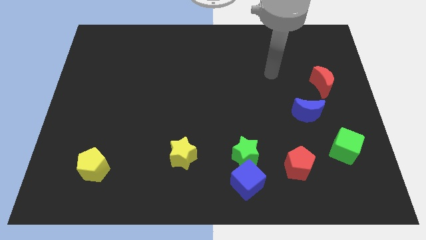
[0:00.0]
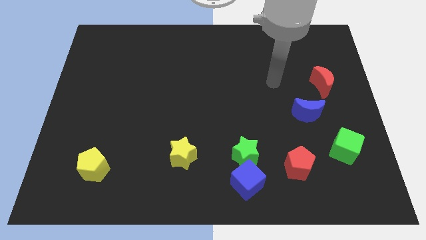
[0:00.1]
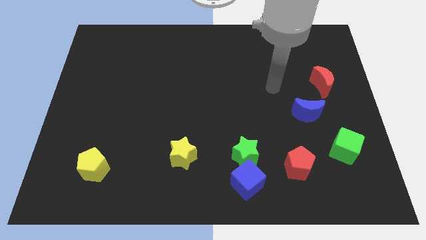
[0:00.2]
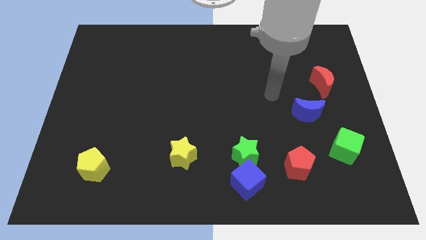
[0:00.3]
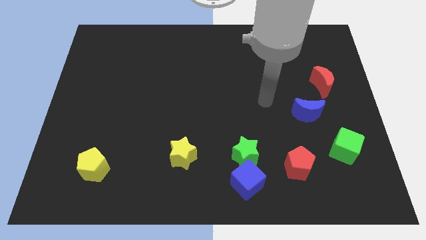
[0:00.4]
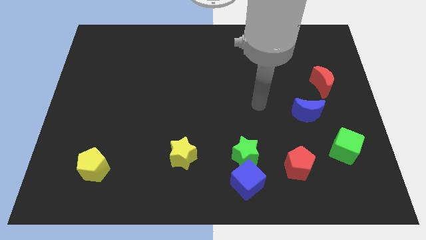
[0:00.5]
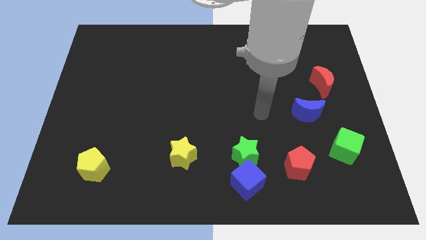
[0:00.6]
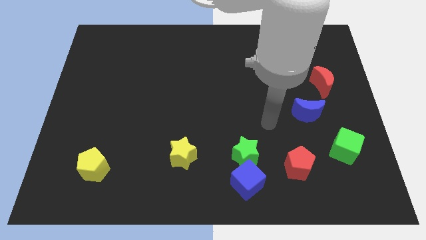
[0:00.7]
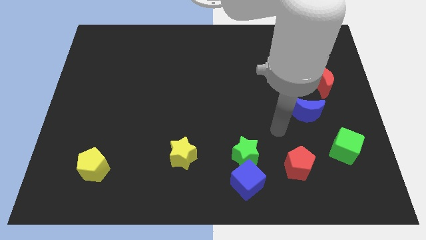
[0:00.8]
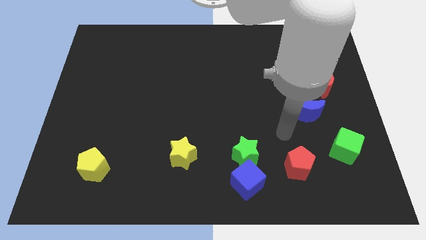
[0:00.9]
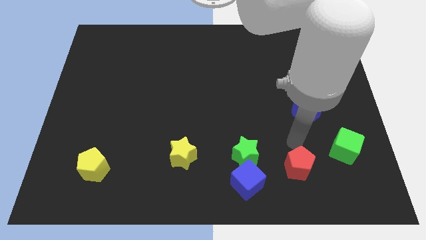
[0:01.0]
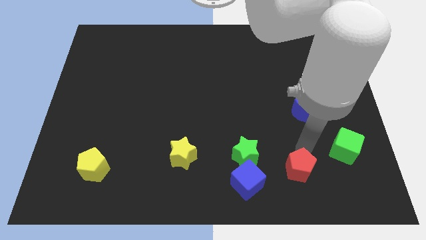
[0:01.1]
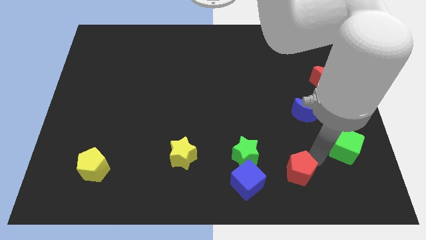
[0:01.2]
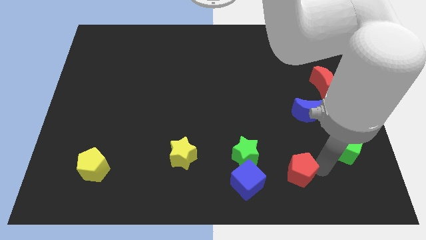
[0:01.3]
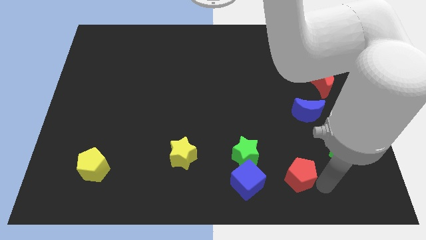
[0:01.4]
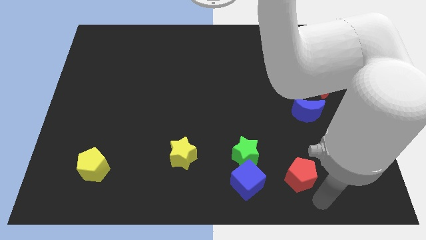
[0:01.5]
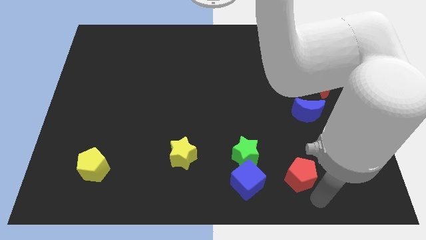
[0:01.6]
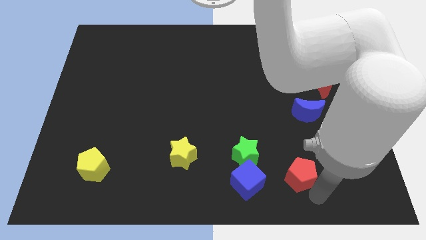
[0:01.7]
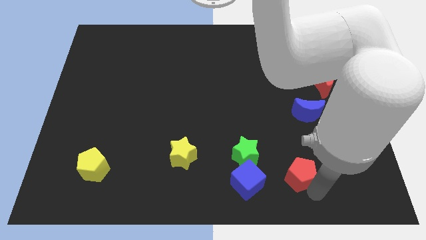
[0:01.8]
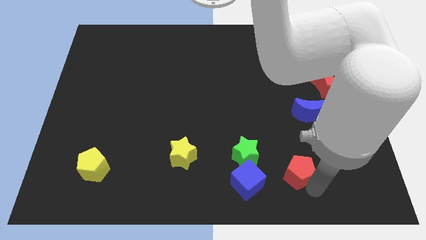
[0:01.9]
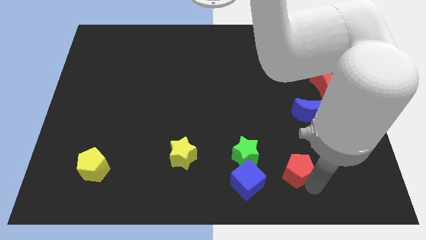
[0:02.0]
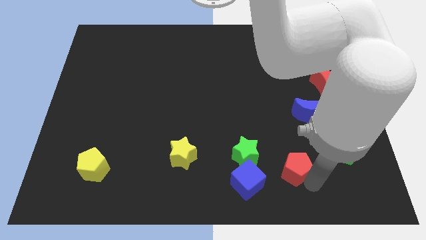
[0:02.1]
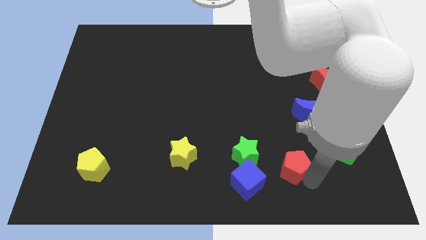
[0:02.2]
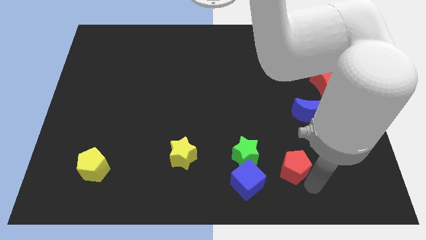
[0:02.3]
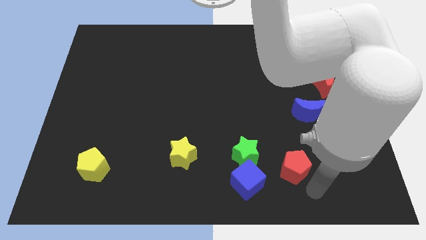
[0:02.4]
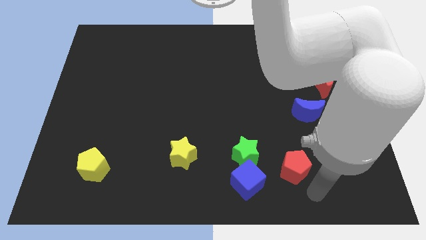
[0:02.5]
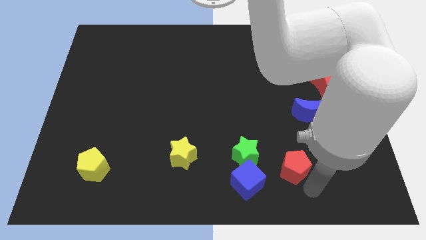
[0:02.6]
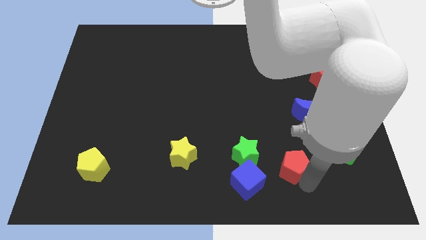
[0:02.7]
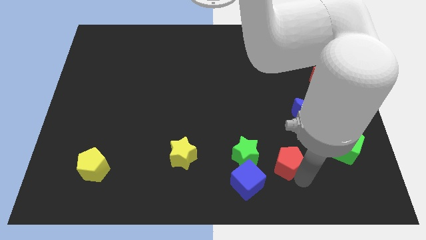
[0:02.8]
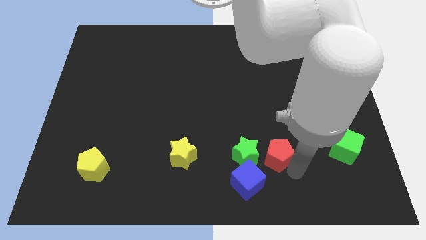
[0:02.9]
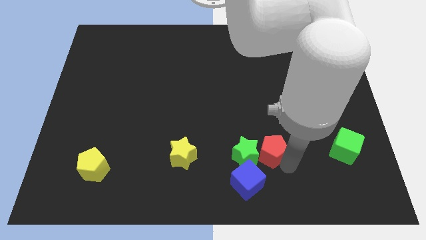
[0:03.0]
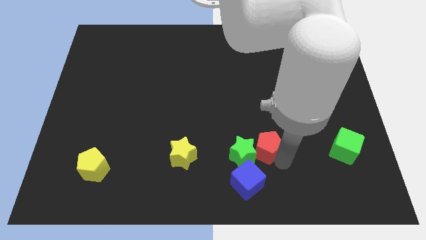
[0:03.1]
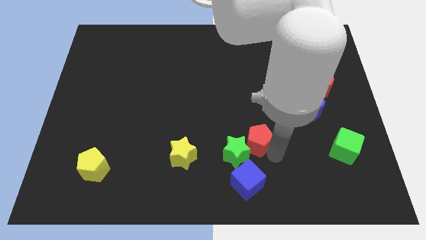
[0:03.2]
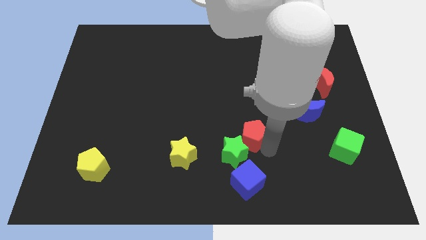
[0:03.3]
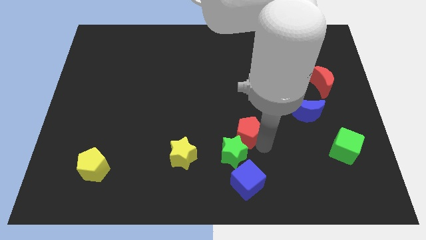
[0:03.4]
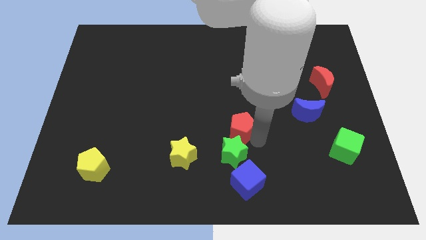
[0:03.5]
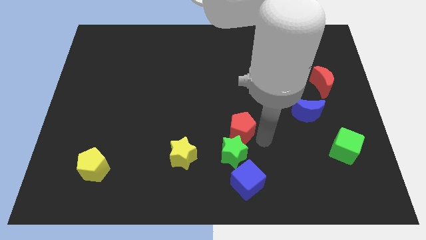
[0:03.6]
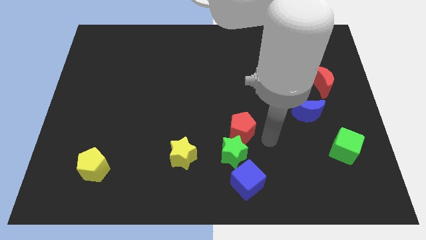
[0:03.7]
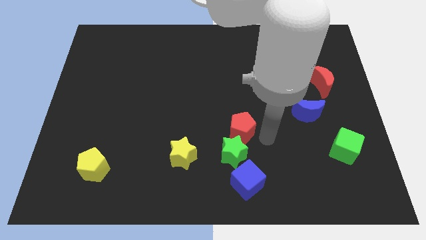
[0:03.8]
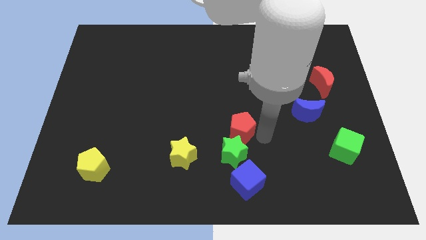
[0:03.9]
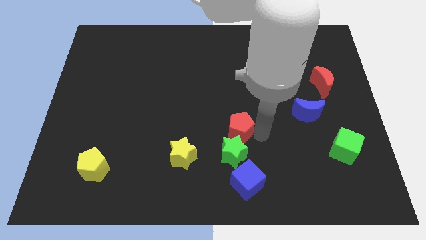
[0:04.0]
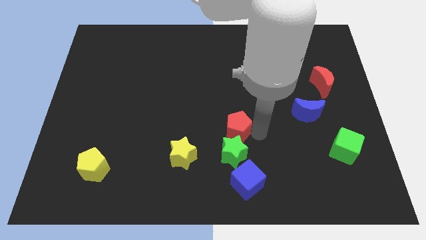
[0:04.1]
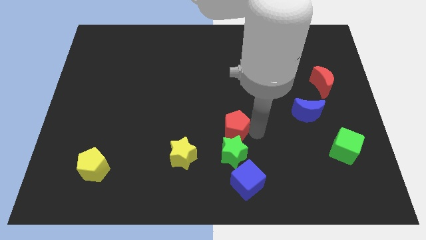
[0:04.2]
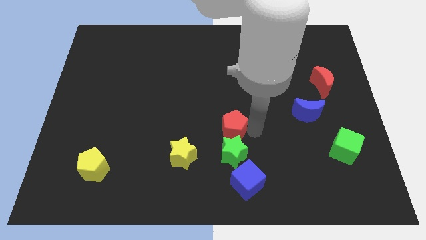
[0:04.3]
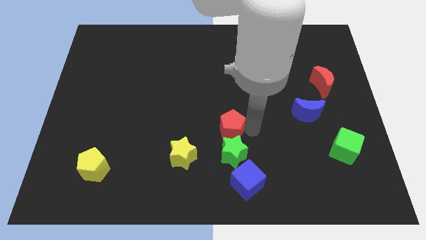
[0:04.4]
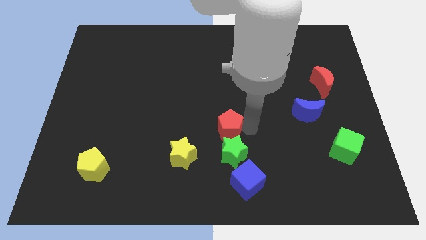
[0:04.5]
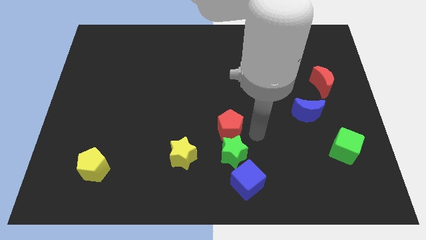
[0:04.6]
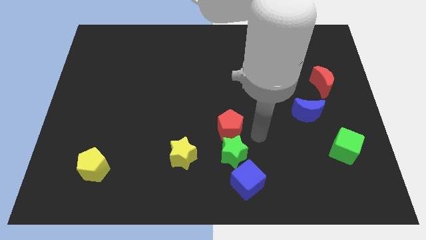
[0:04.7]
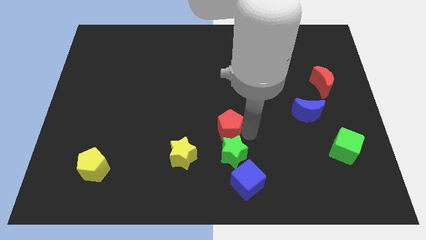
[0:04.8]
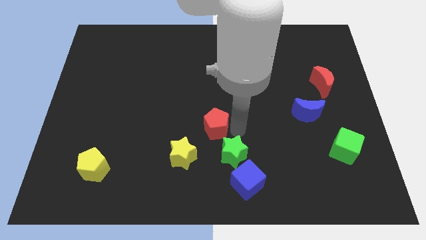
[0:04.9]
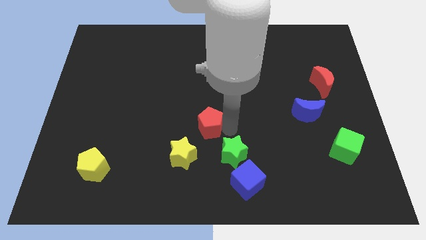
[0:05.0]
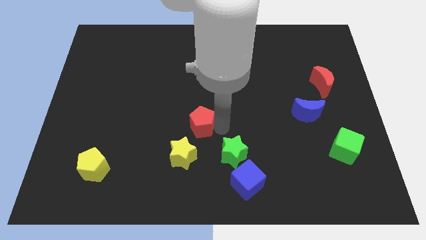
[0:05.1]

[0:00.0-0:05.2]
put the red pentagon to the top side of the yellow star

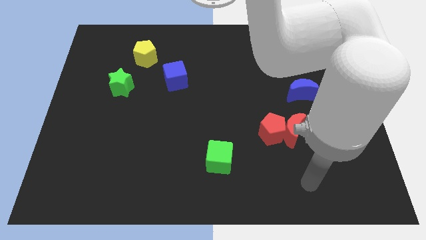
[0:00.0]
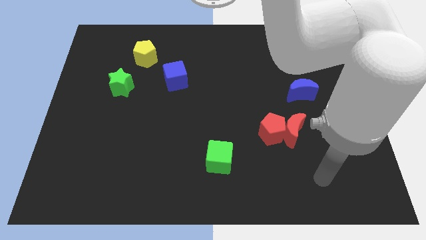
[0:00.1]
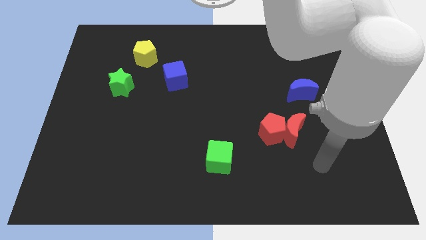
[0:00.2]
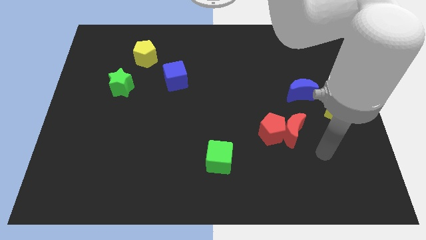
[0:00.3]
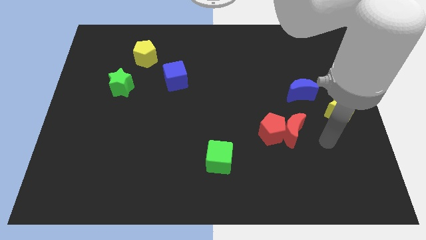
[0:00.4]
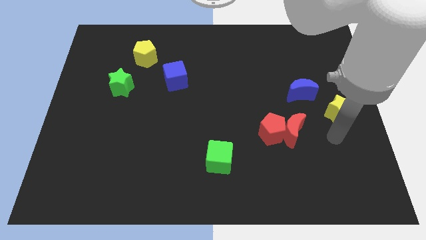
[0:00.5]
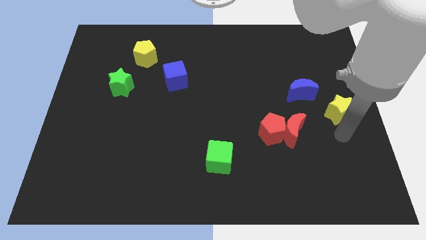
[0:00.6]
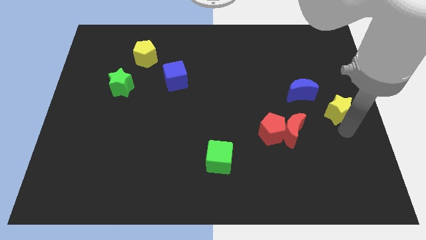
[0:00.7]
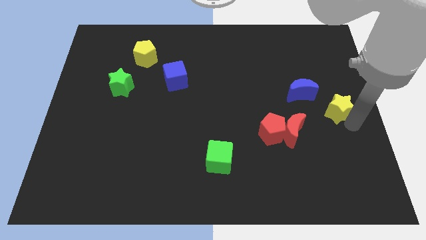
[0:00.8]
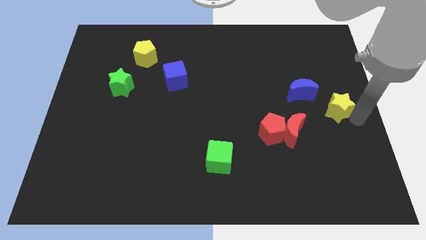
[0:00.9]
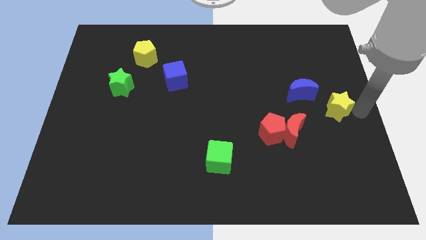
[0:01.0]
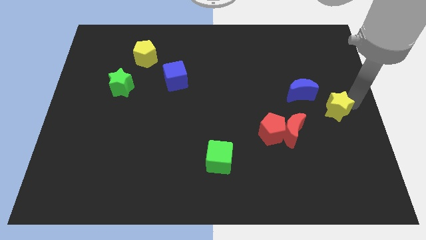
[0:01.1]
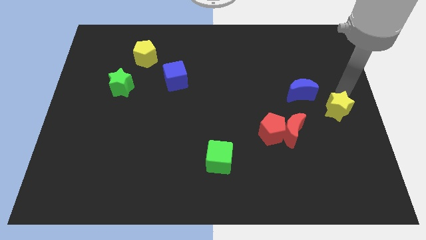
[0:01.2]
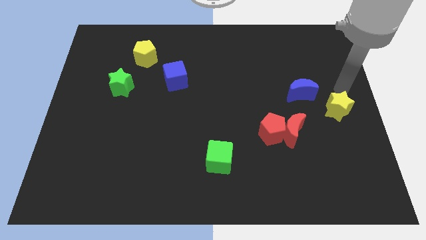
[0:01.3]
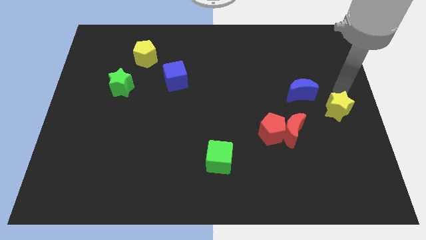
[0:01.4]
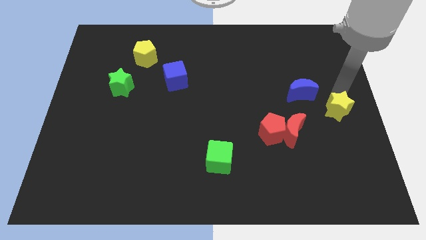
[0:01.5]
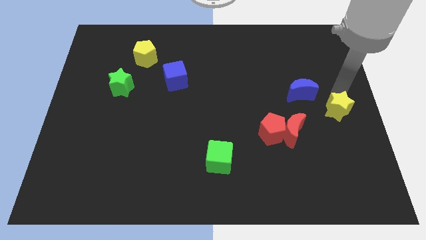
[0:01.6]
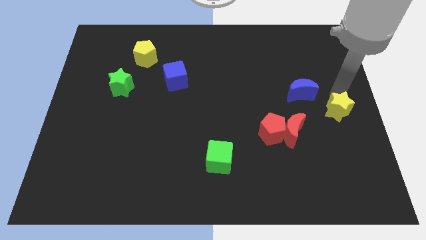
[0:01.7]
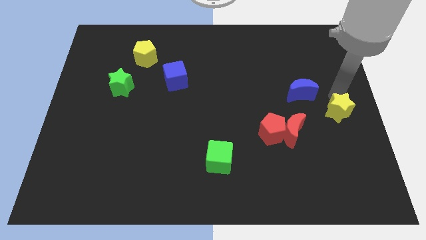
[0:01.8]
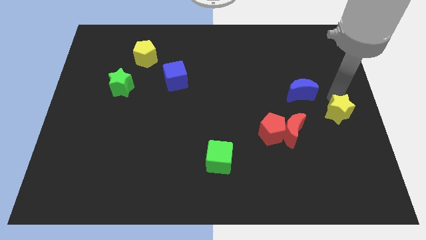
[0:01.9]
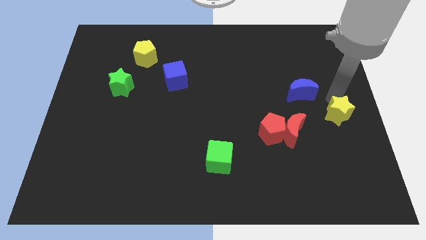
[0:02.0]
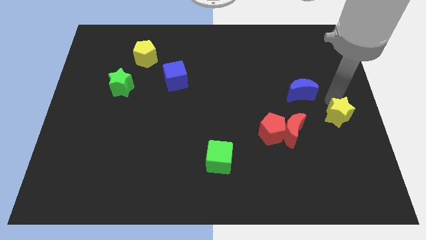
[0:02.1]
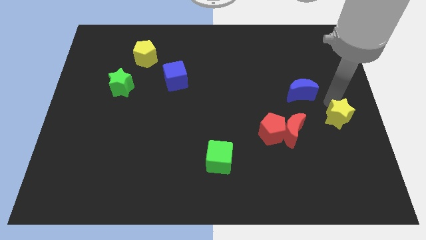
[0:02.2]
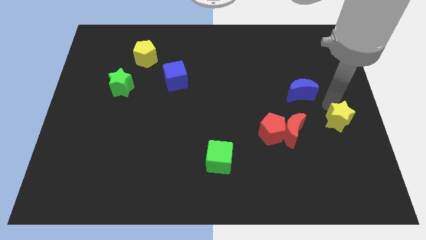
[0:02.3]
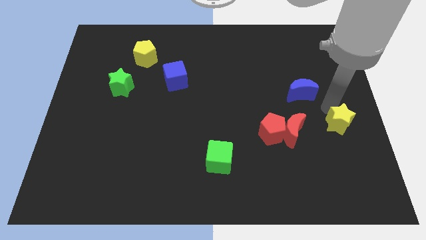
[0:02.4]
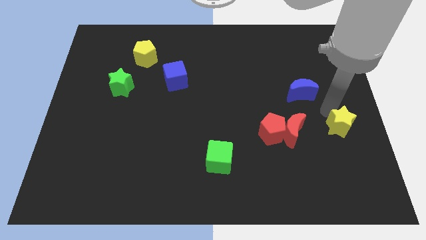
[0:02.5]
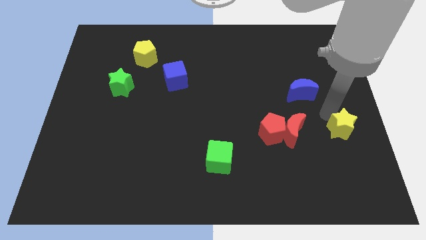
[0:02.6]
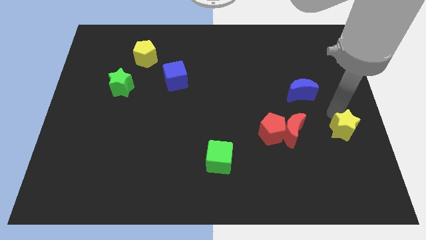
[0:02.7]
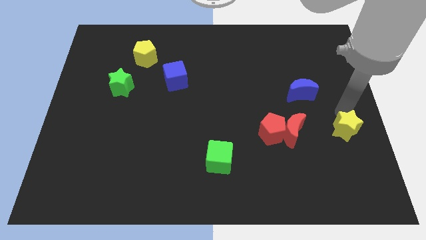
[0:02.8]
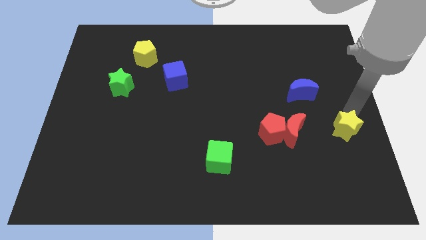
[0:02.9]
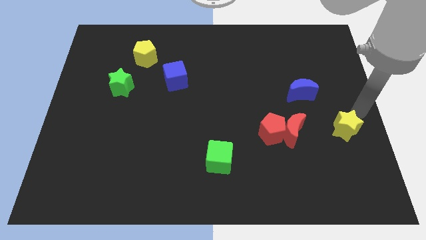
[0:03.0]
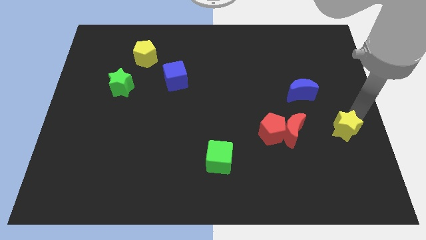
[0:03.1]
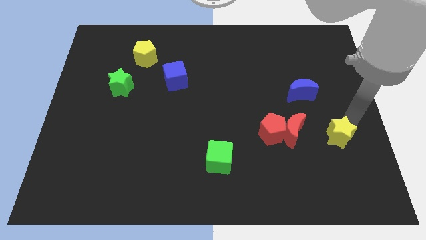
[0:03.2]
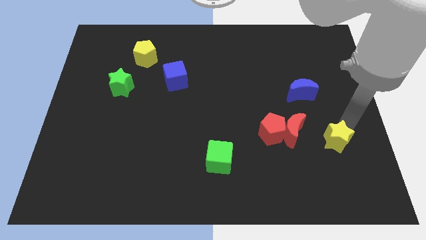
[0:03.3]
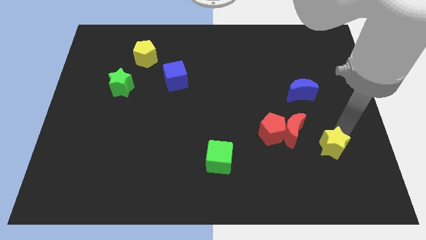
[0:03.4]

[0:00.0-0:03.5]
move the yellow star to the bottom right of the red moon
